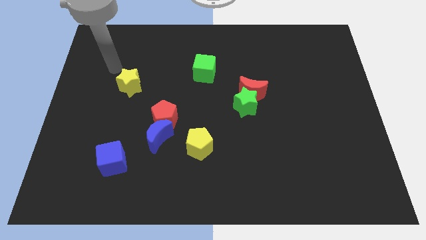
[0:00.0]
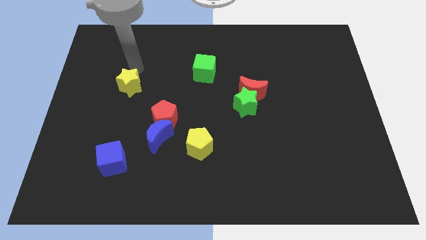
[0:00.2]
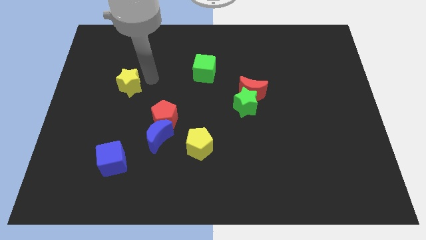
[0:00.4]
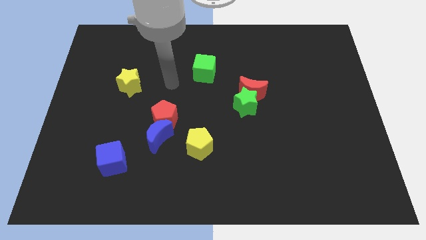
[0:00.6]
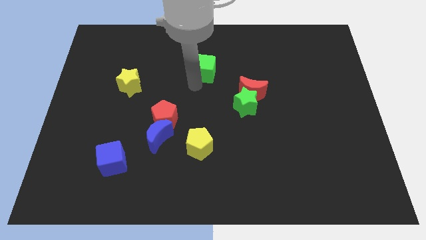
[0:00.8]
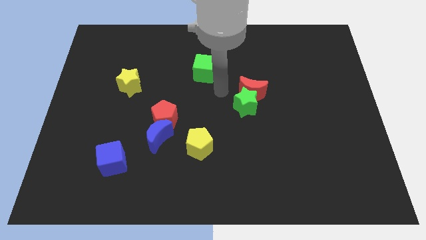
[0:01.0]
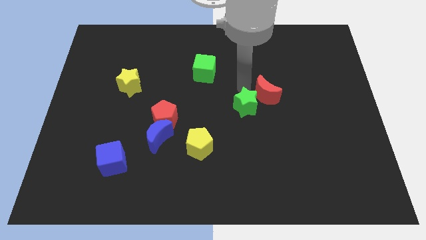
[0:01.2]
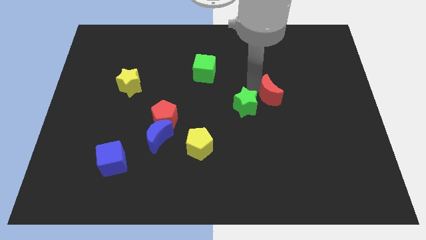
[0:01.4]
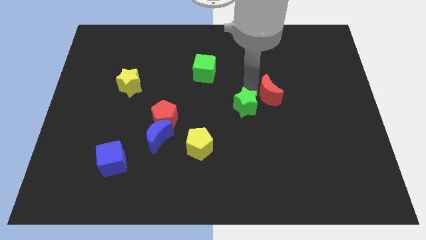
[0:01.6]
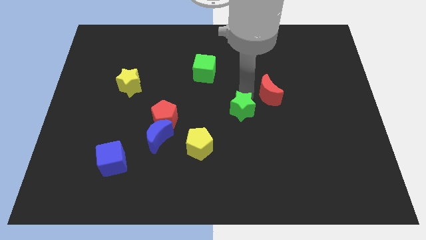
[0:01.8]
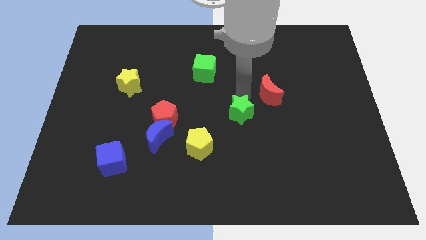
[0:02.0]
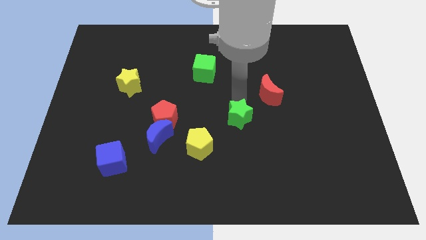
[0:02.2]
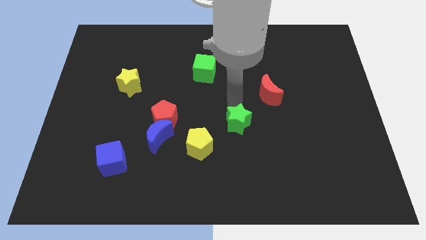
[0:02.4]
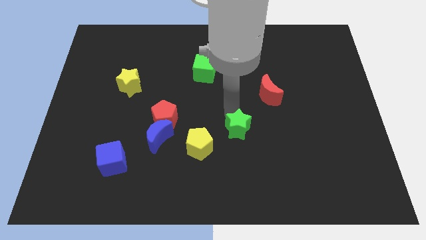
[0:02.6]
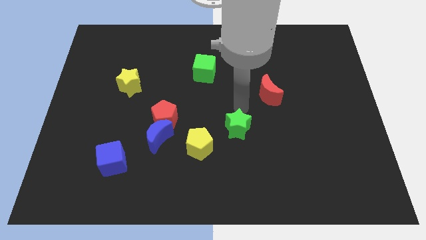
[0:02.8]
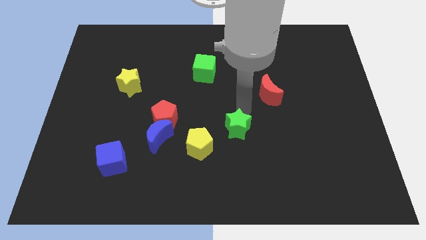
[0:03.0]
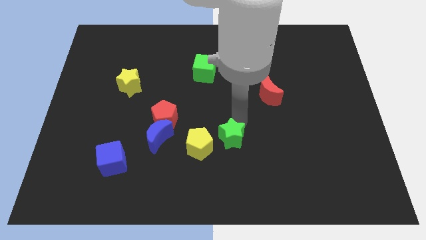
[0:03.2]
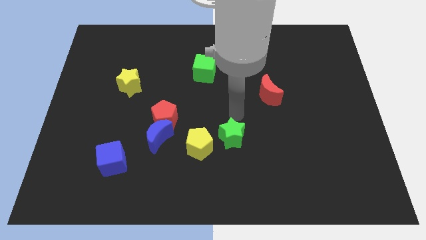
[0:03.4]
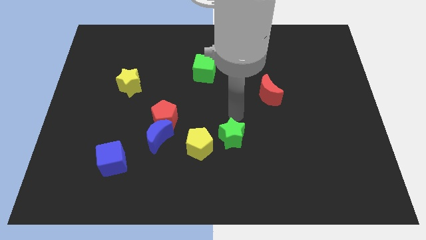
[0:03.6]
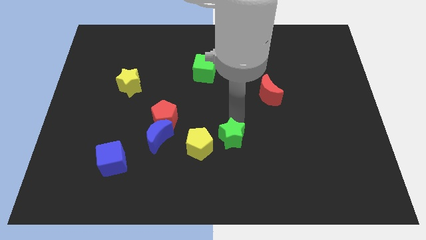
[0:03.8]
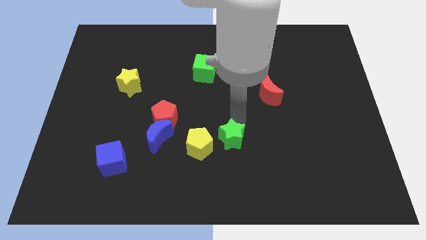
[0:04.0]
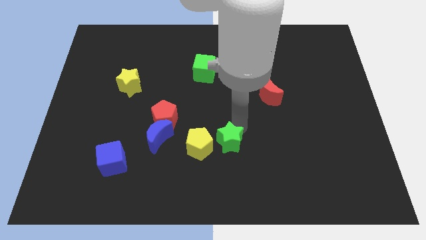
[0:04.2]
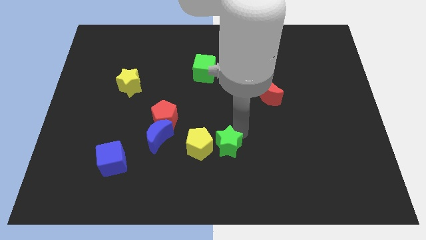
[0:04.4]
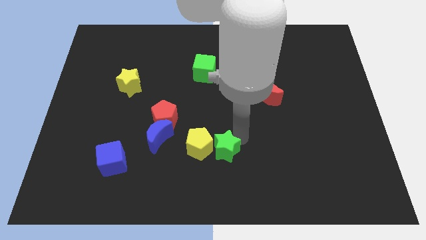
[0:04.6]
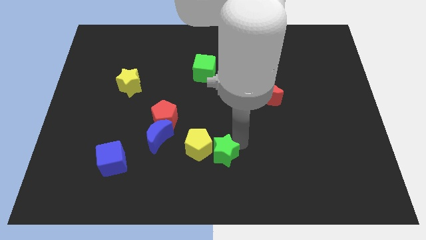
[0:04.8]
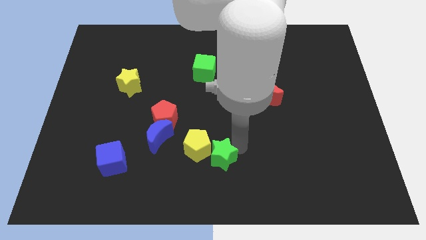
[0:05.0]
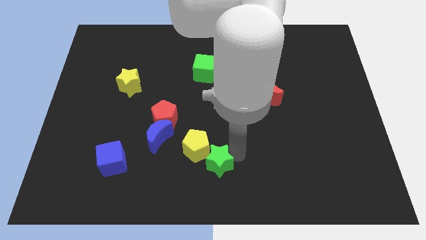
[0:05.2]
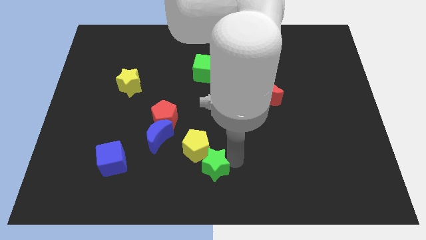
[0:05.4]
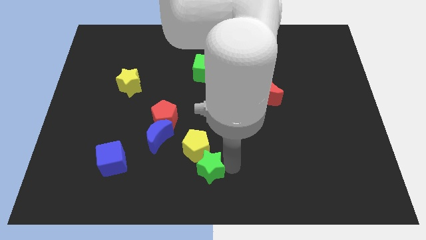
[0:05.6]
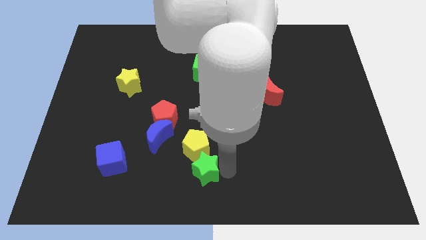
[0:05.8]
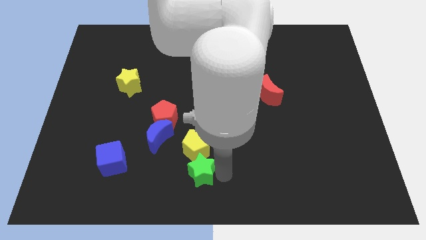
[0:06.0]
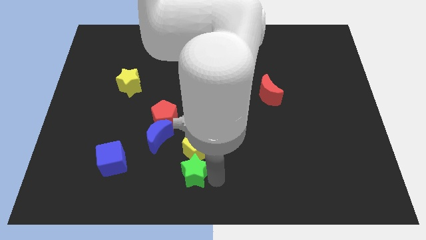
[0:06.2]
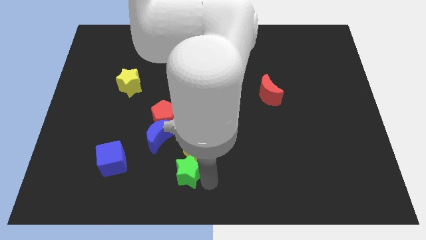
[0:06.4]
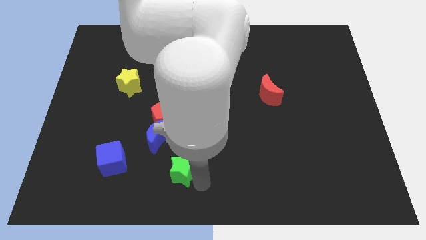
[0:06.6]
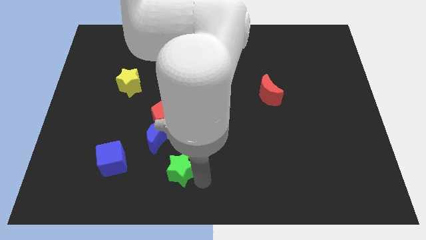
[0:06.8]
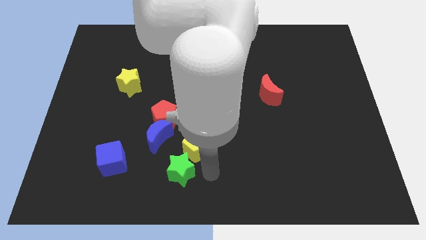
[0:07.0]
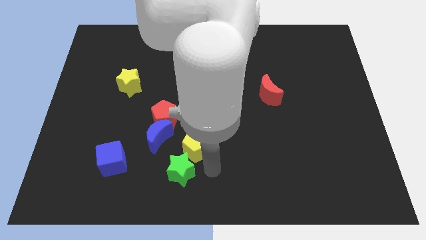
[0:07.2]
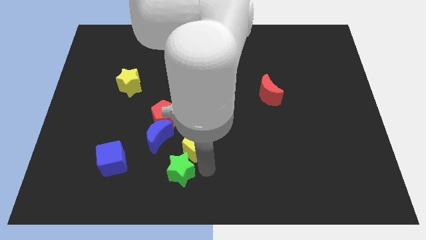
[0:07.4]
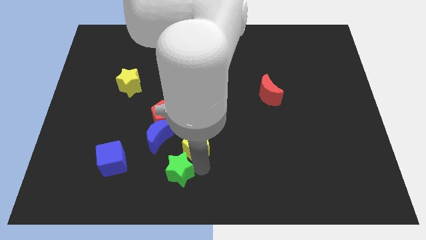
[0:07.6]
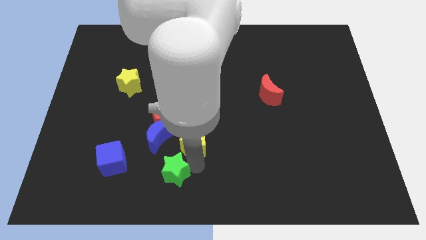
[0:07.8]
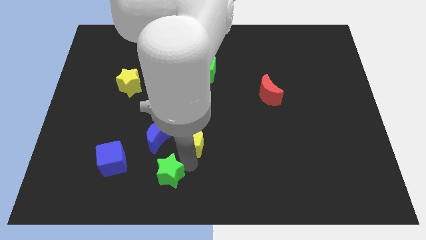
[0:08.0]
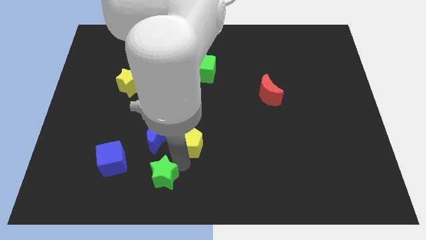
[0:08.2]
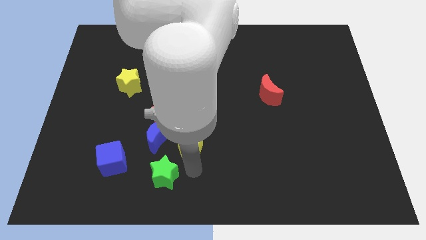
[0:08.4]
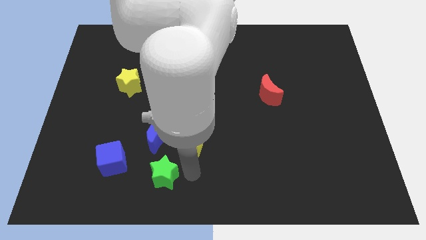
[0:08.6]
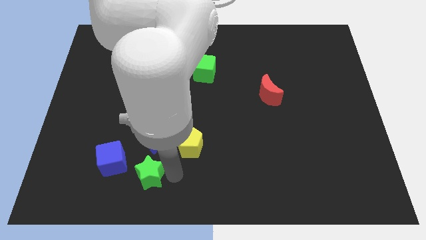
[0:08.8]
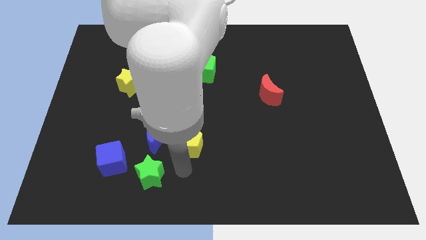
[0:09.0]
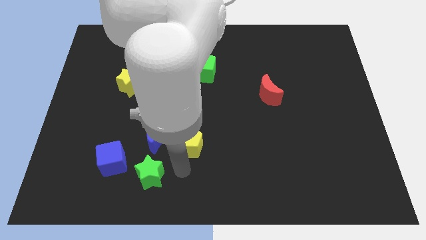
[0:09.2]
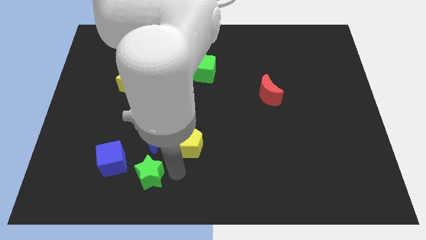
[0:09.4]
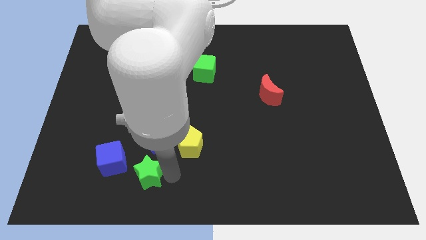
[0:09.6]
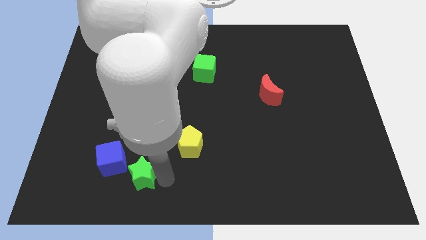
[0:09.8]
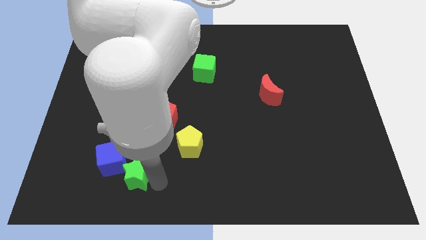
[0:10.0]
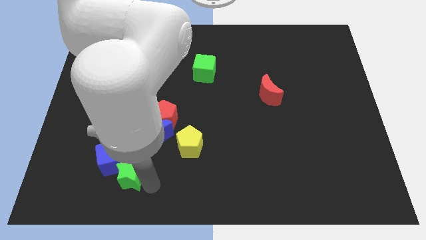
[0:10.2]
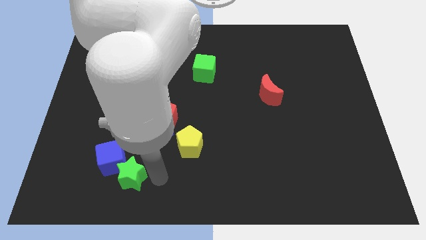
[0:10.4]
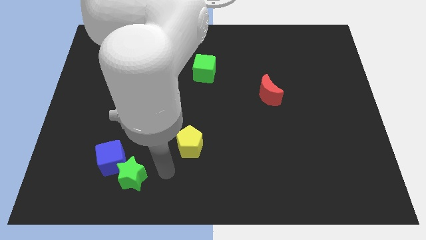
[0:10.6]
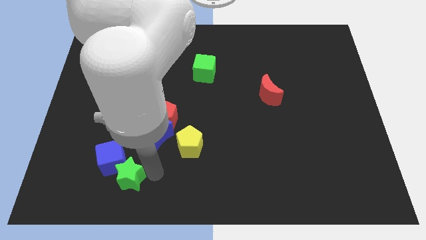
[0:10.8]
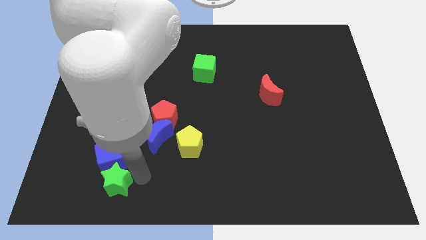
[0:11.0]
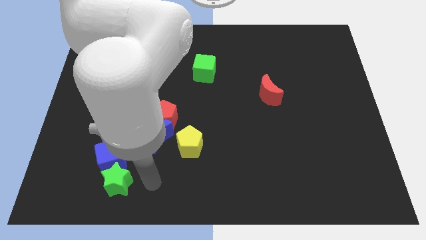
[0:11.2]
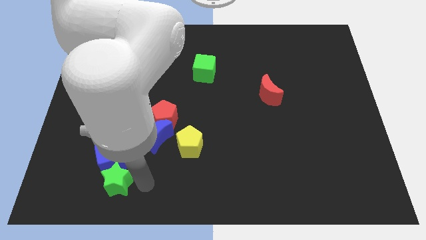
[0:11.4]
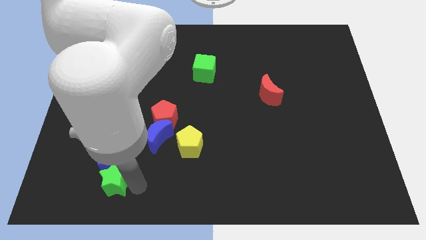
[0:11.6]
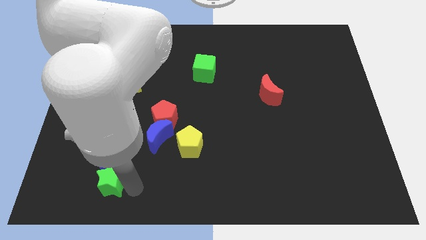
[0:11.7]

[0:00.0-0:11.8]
push the green star to the bottom left side of the blue cube

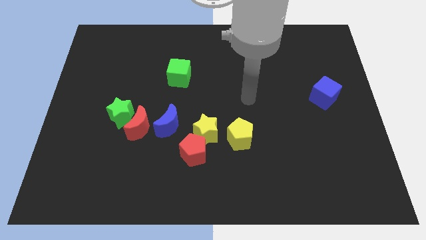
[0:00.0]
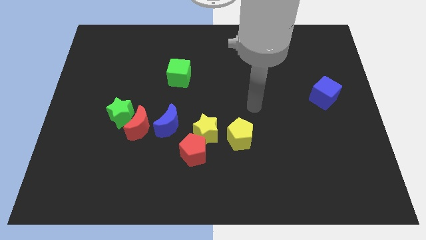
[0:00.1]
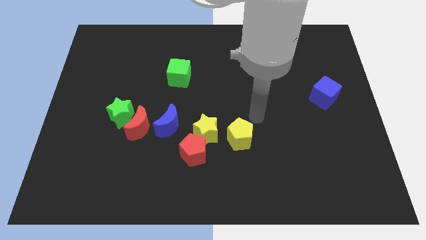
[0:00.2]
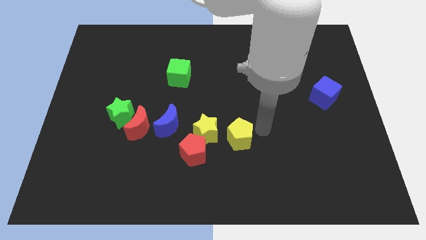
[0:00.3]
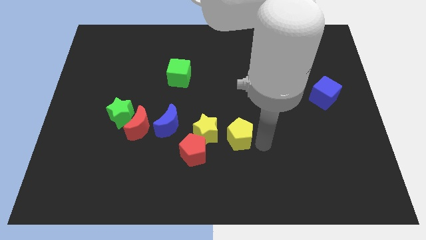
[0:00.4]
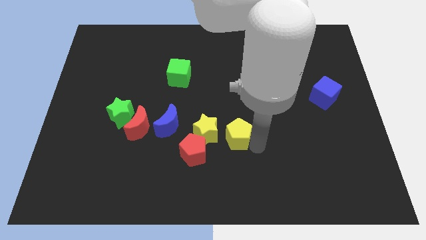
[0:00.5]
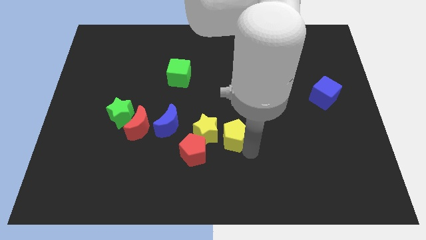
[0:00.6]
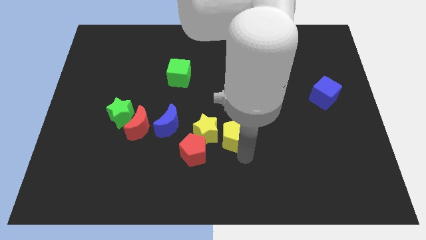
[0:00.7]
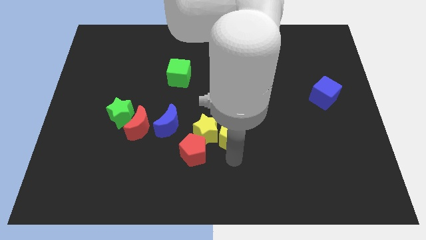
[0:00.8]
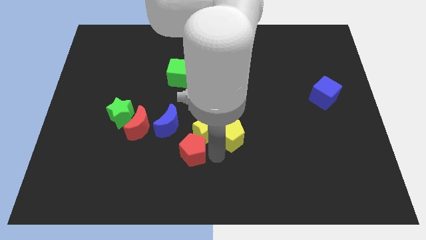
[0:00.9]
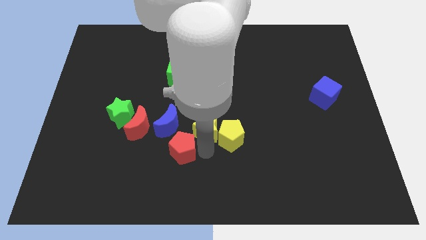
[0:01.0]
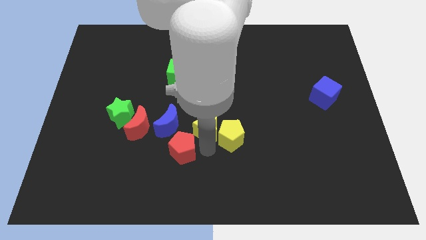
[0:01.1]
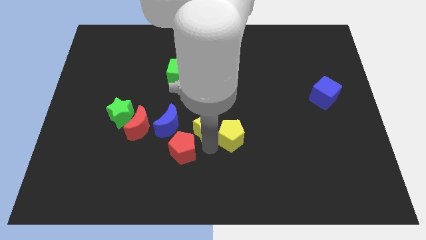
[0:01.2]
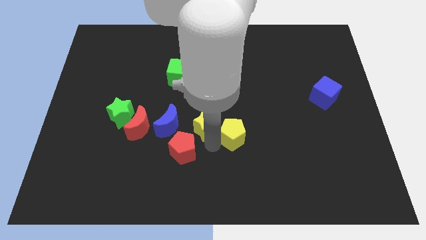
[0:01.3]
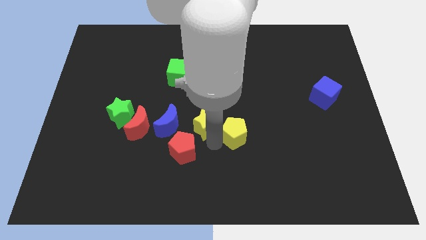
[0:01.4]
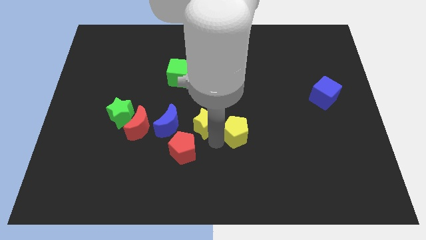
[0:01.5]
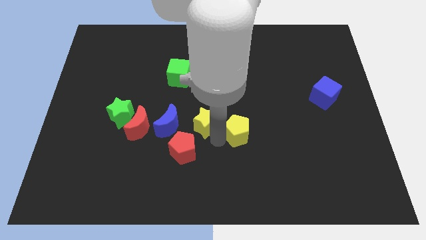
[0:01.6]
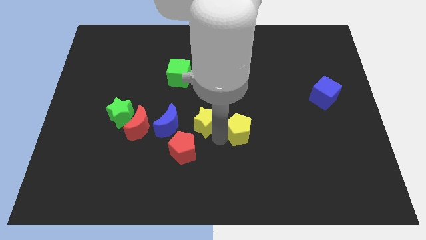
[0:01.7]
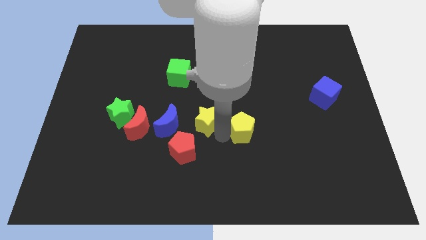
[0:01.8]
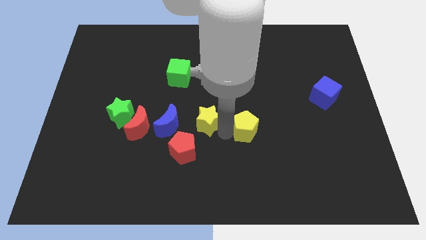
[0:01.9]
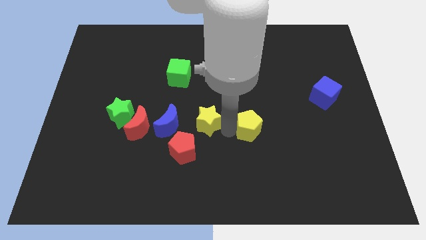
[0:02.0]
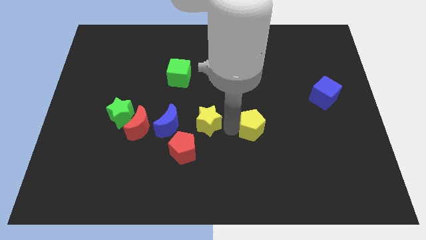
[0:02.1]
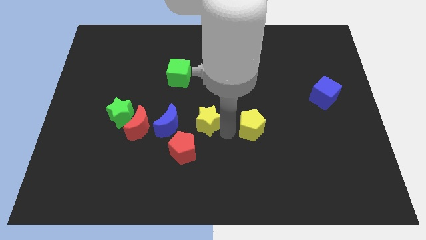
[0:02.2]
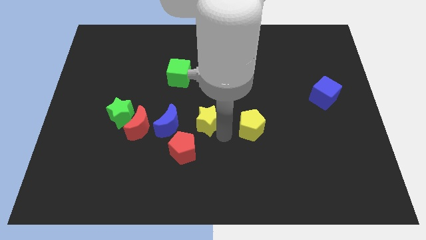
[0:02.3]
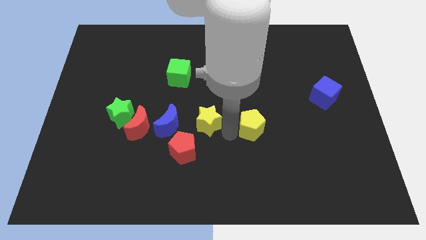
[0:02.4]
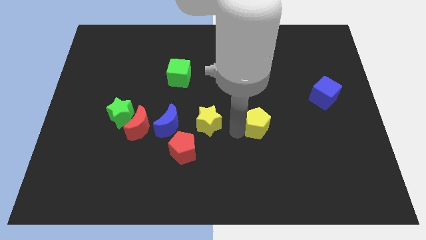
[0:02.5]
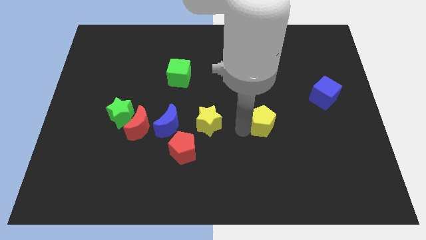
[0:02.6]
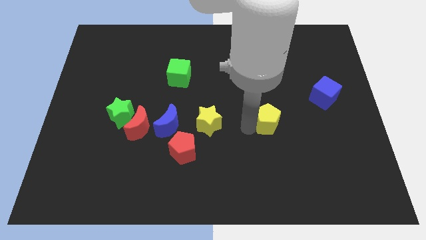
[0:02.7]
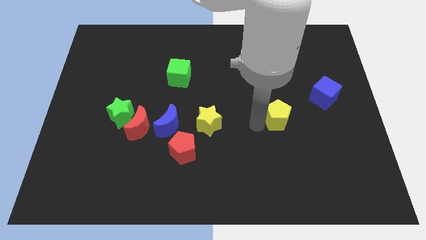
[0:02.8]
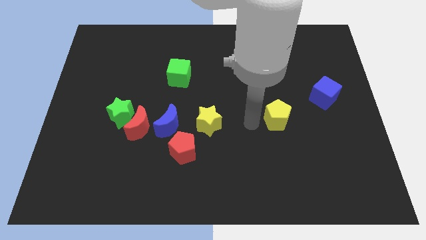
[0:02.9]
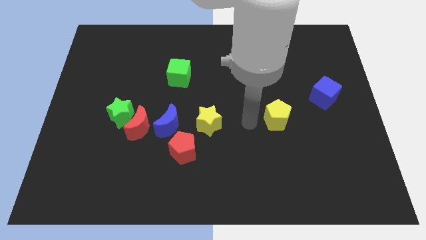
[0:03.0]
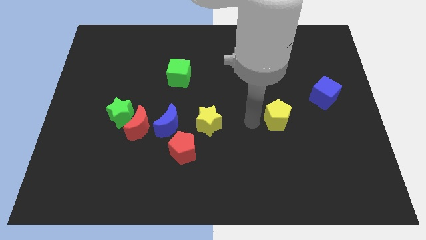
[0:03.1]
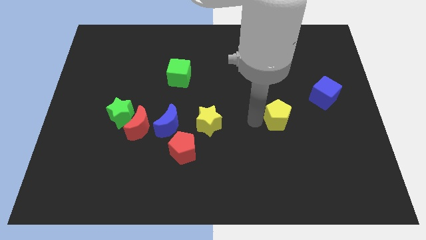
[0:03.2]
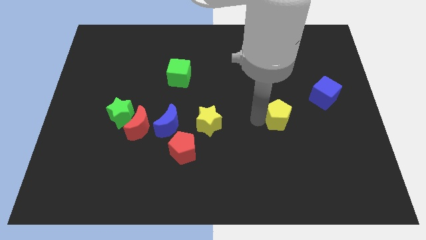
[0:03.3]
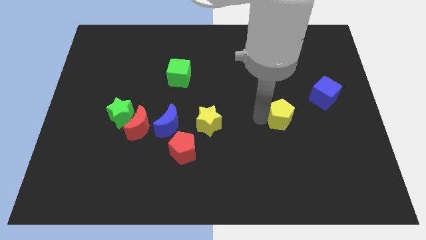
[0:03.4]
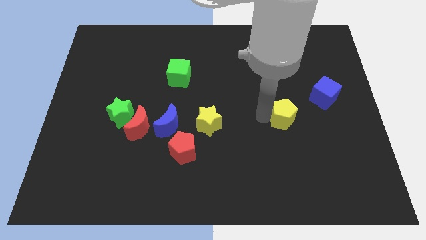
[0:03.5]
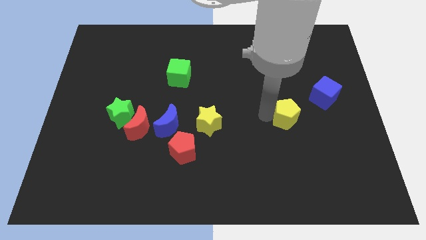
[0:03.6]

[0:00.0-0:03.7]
push the yellow pentagon to the bottom left of the blue cube
